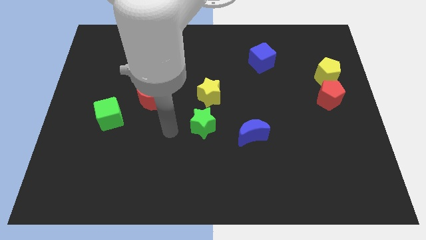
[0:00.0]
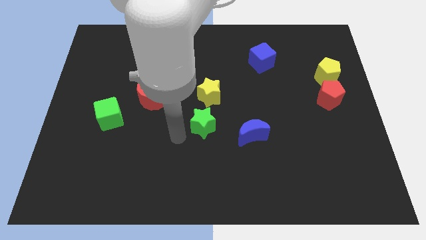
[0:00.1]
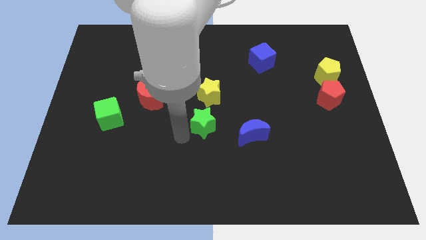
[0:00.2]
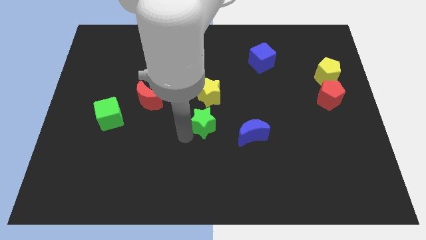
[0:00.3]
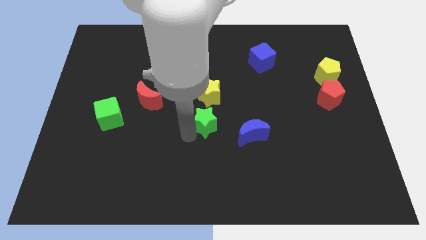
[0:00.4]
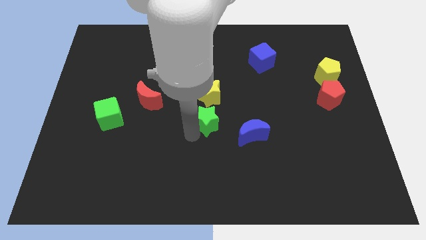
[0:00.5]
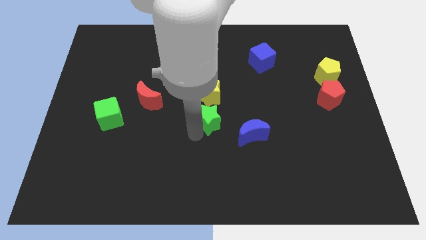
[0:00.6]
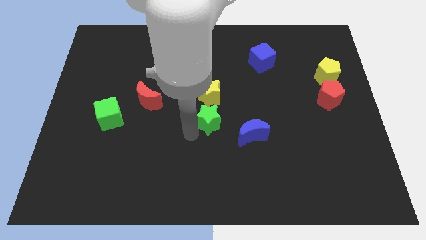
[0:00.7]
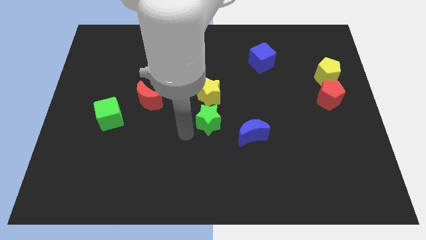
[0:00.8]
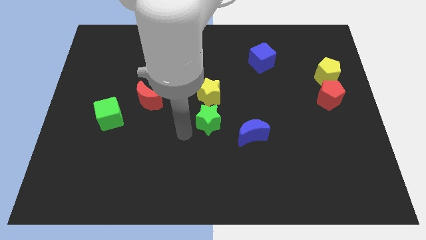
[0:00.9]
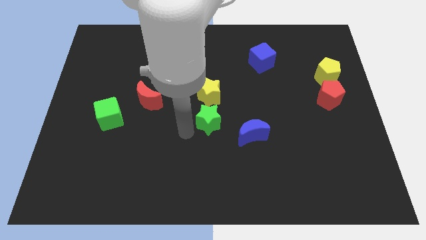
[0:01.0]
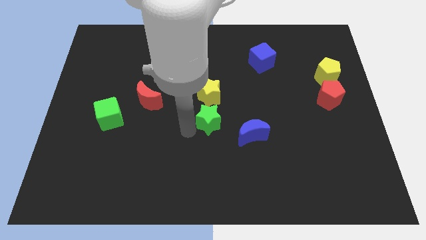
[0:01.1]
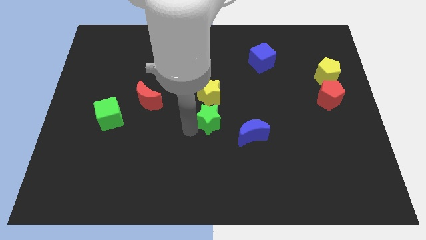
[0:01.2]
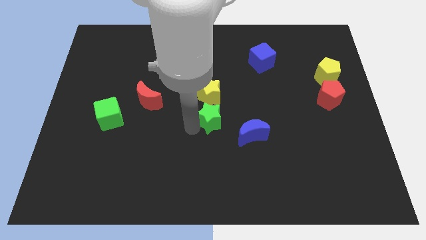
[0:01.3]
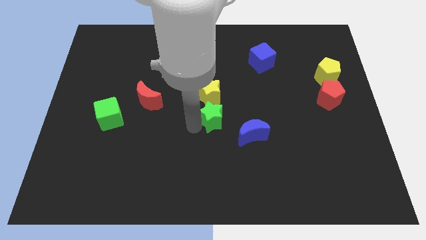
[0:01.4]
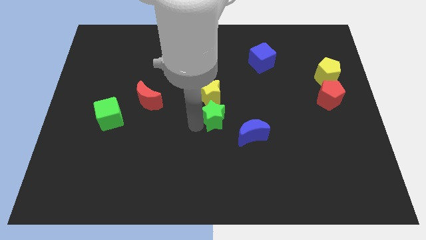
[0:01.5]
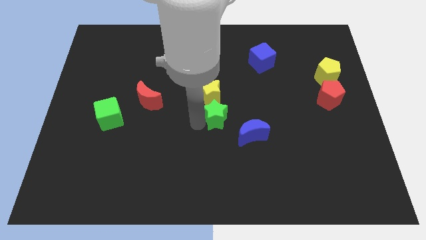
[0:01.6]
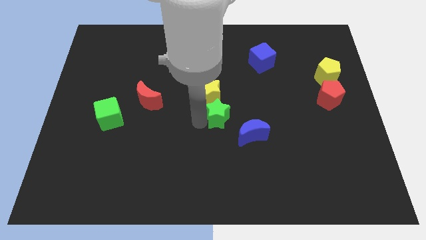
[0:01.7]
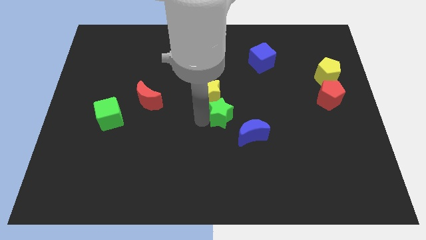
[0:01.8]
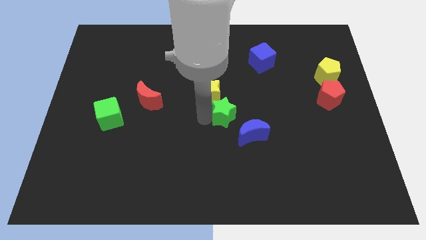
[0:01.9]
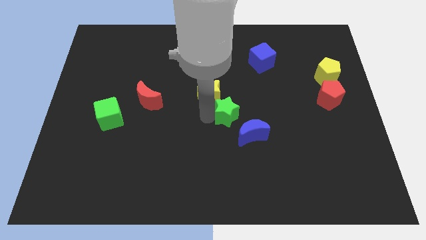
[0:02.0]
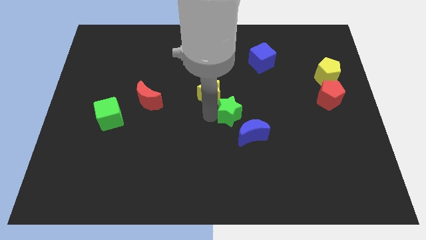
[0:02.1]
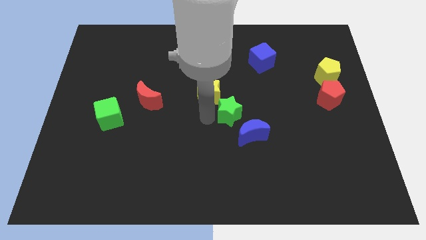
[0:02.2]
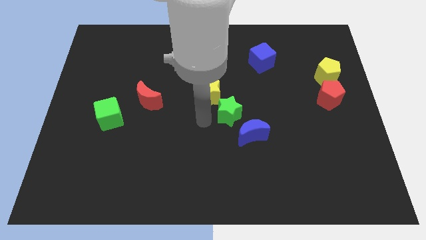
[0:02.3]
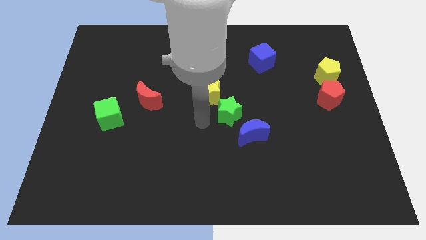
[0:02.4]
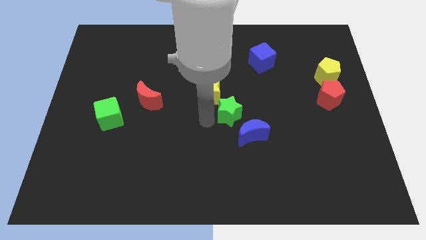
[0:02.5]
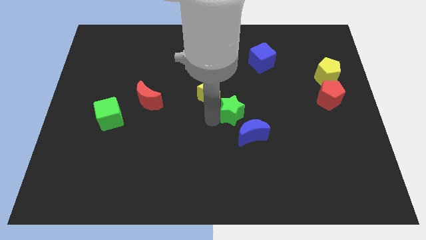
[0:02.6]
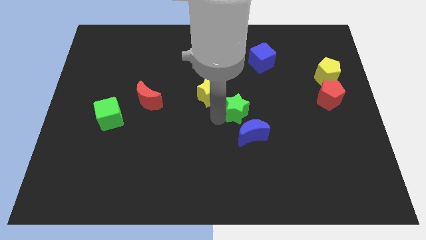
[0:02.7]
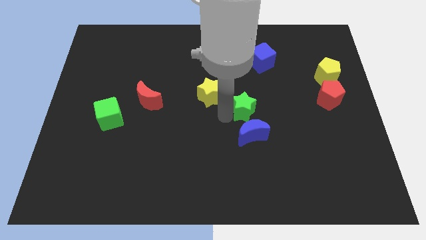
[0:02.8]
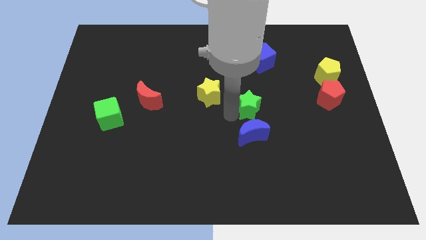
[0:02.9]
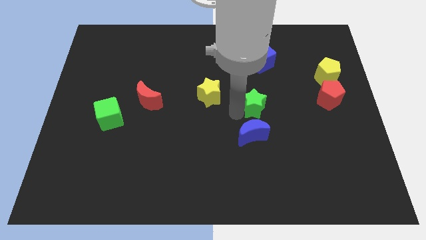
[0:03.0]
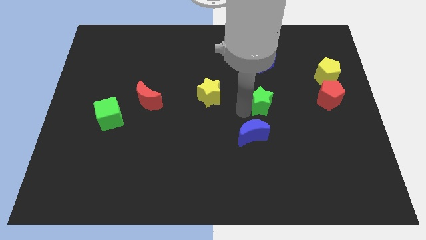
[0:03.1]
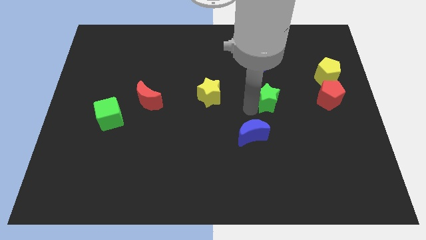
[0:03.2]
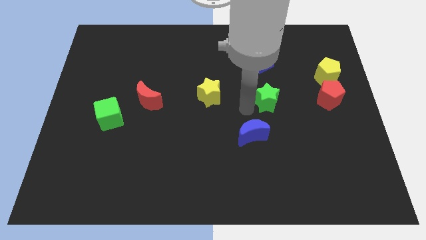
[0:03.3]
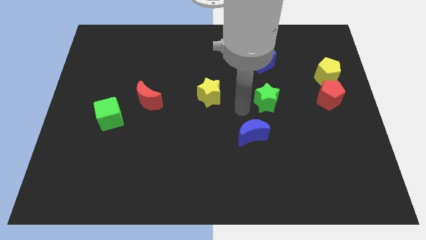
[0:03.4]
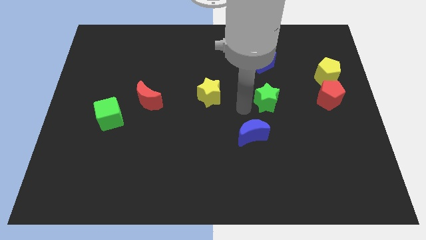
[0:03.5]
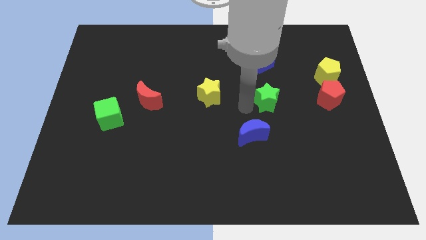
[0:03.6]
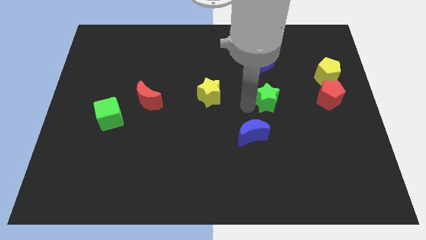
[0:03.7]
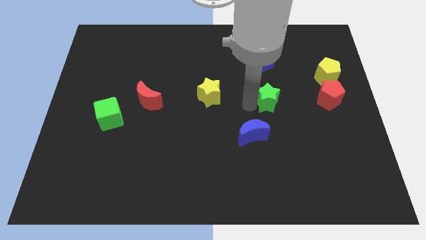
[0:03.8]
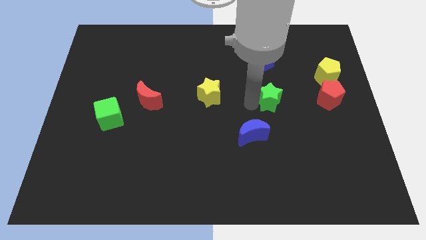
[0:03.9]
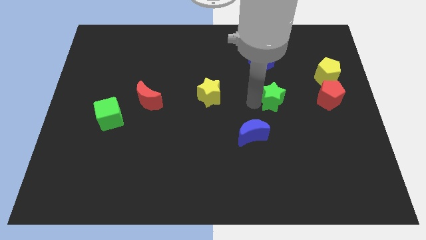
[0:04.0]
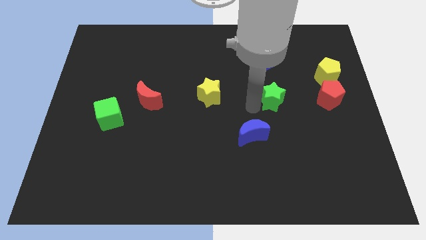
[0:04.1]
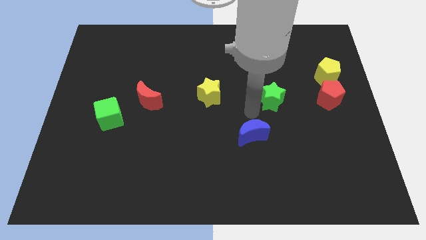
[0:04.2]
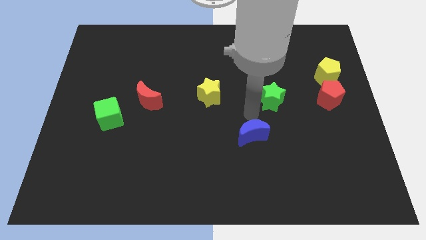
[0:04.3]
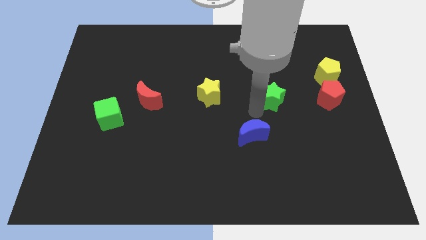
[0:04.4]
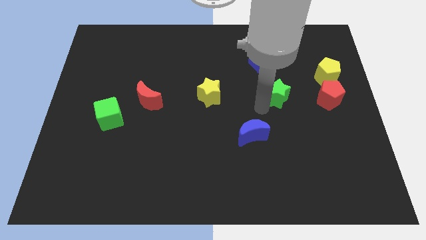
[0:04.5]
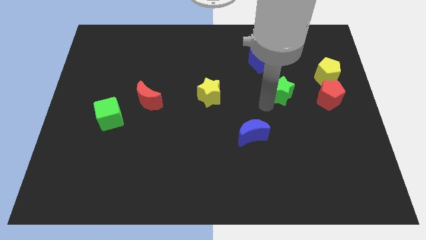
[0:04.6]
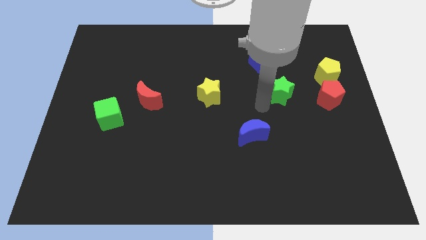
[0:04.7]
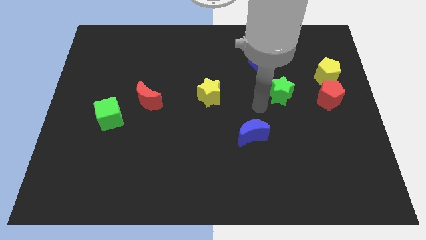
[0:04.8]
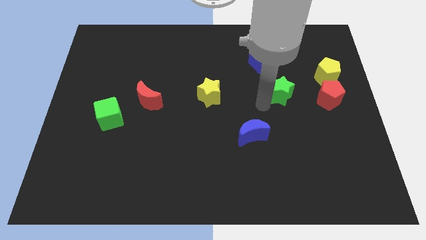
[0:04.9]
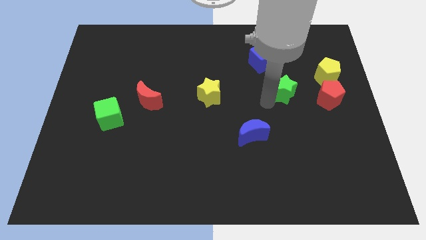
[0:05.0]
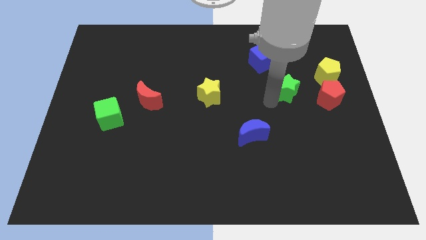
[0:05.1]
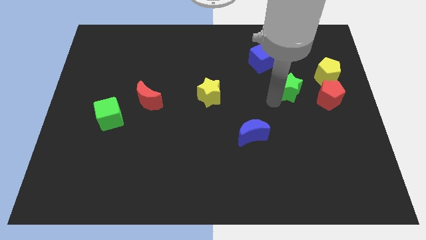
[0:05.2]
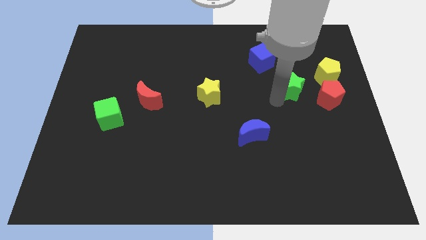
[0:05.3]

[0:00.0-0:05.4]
move the green star diagonally up and to the left of the red pentagon

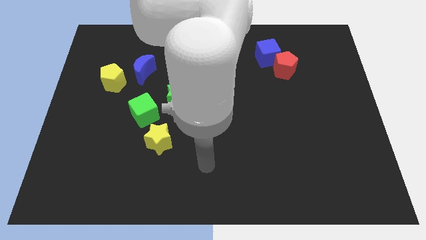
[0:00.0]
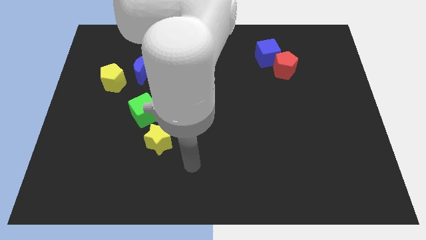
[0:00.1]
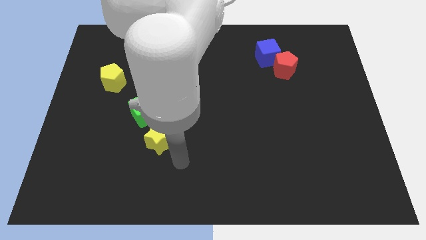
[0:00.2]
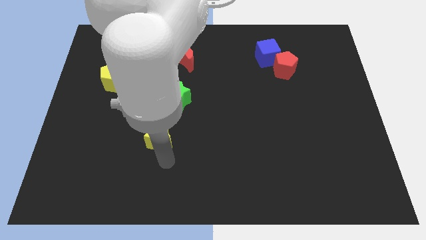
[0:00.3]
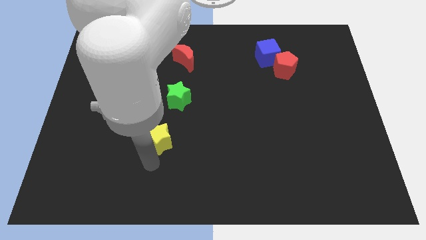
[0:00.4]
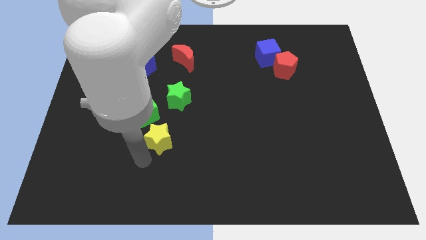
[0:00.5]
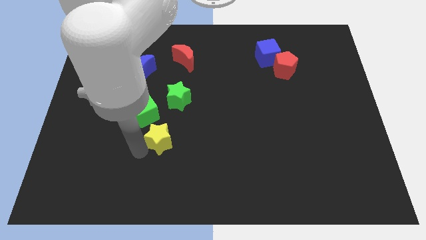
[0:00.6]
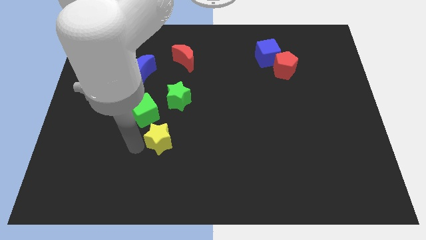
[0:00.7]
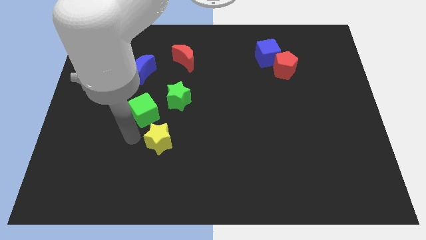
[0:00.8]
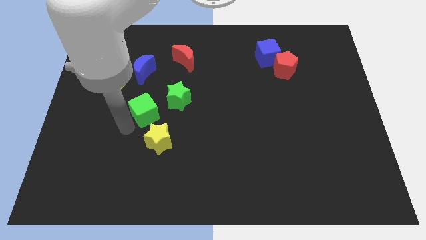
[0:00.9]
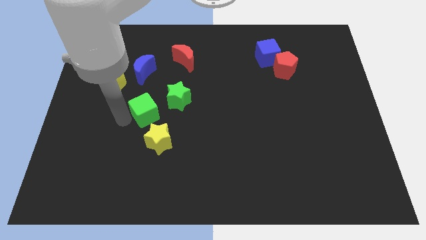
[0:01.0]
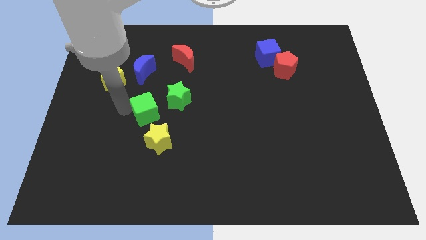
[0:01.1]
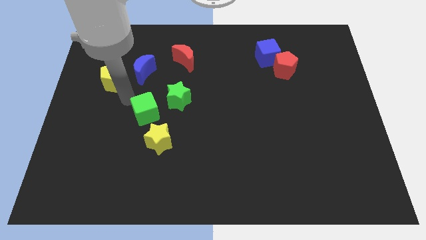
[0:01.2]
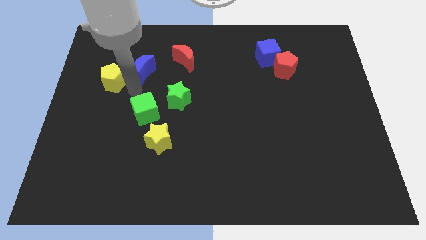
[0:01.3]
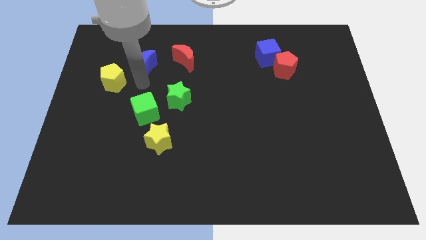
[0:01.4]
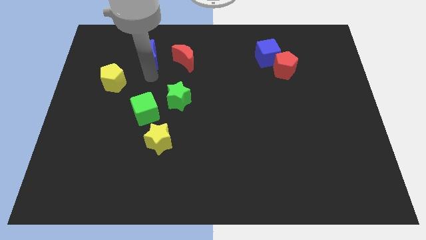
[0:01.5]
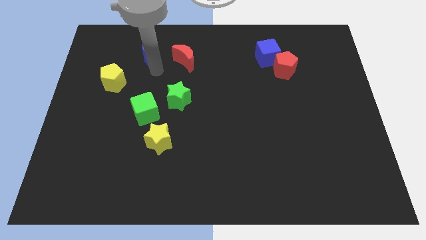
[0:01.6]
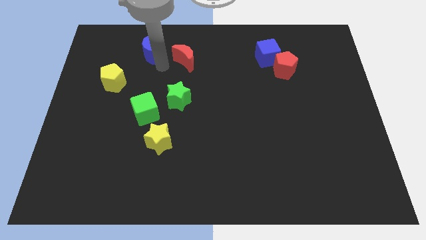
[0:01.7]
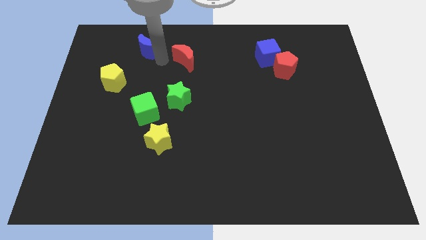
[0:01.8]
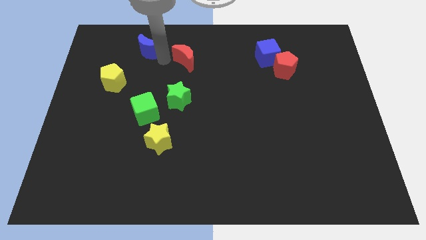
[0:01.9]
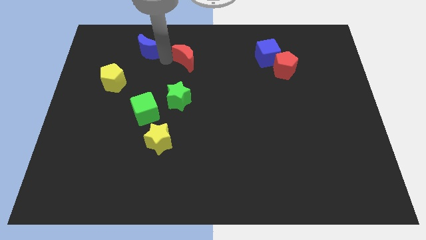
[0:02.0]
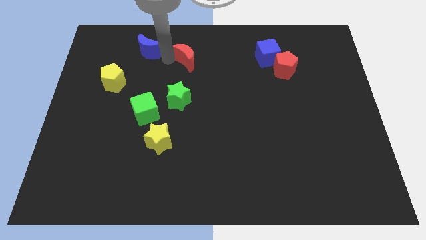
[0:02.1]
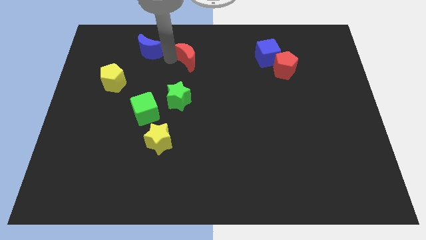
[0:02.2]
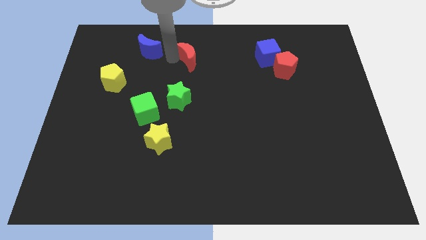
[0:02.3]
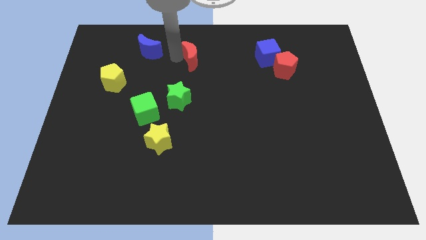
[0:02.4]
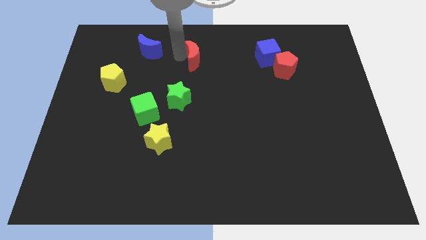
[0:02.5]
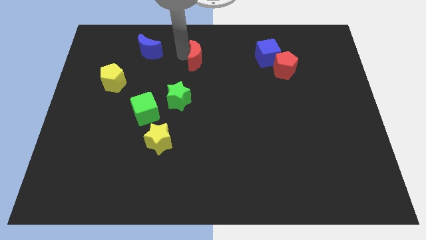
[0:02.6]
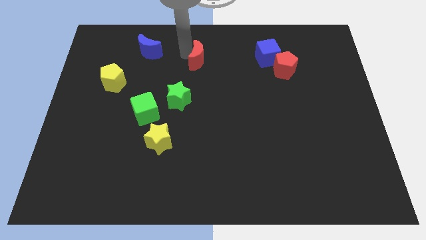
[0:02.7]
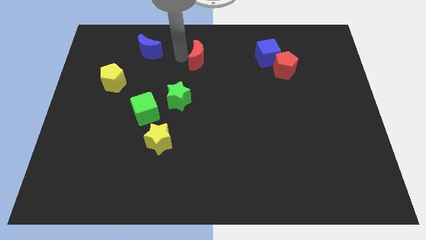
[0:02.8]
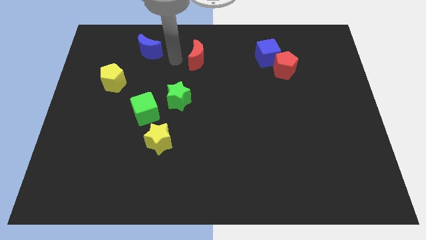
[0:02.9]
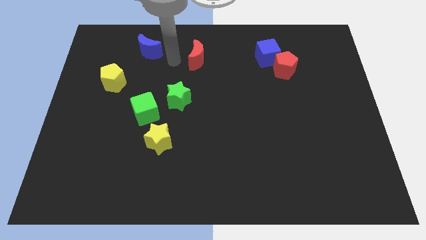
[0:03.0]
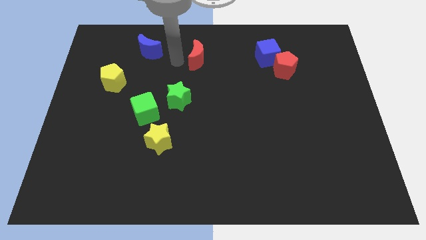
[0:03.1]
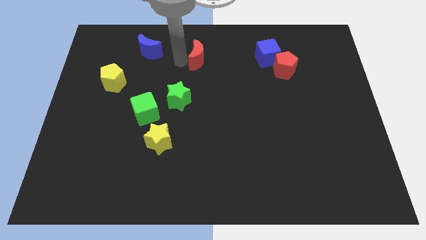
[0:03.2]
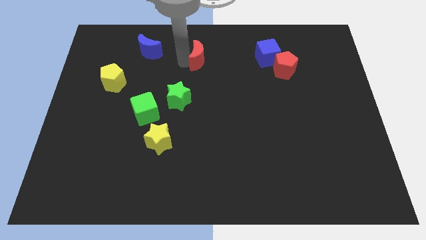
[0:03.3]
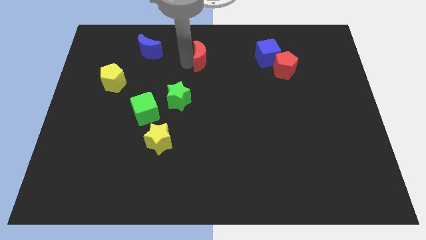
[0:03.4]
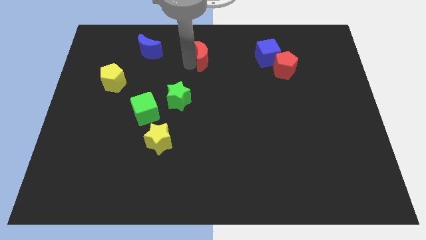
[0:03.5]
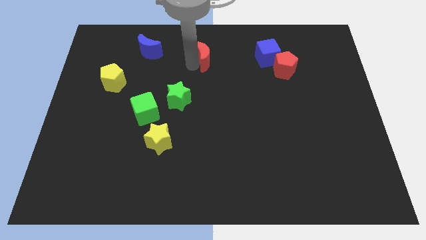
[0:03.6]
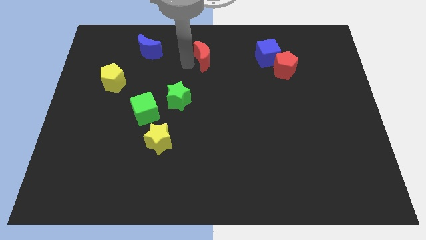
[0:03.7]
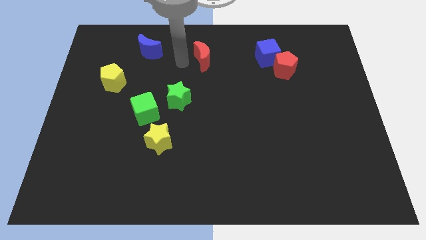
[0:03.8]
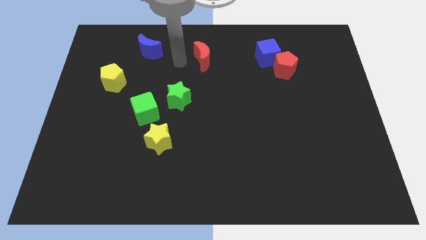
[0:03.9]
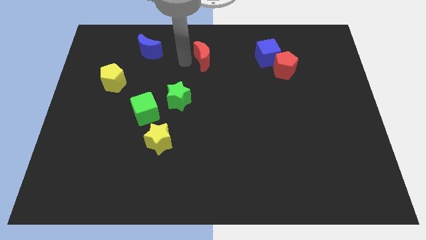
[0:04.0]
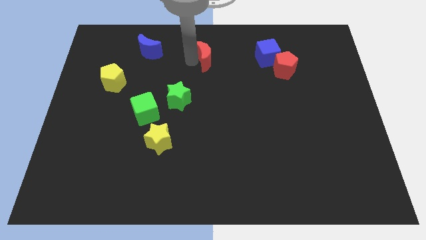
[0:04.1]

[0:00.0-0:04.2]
put the red moon to the left side of the blue cube
